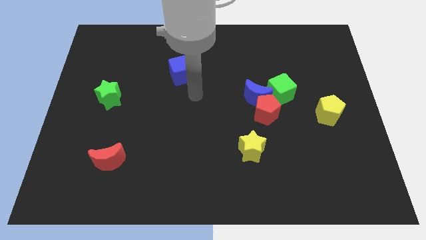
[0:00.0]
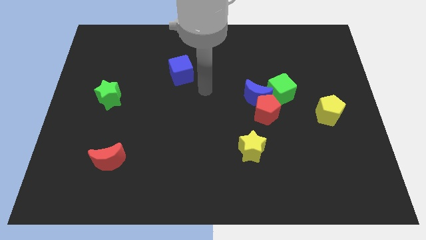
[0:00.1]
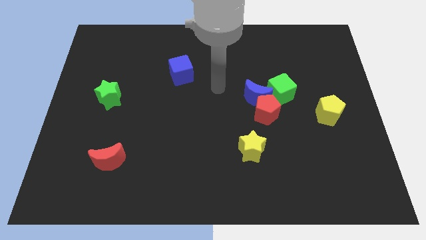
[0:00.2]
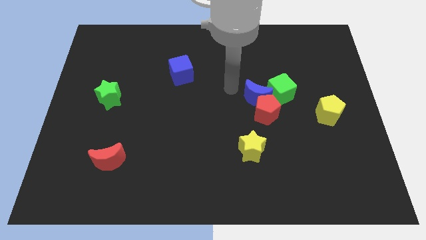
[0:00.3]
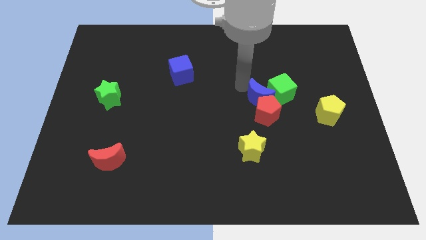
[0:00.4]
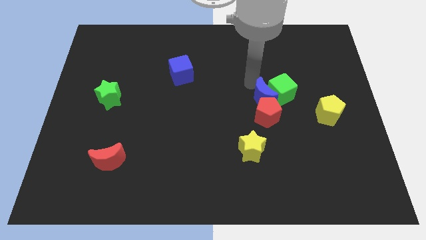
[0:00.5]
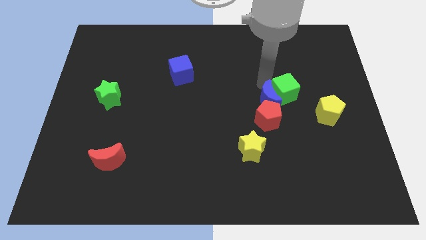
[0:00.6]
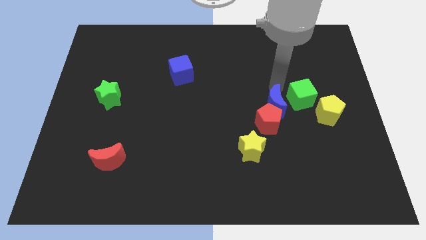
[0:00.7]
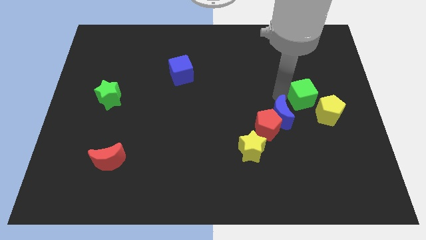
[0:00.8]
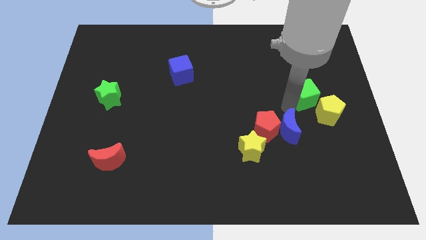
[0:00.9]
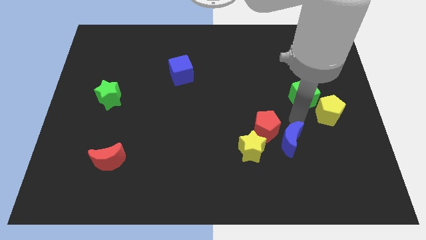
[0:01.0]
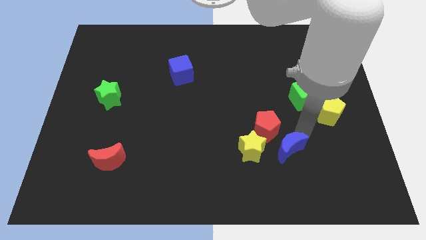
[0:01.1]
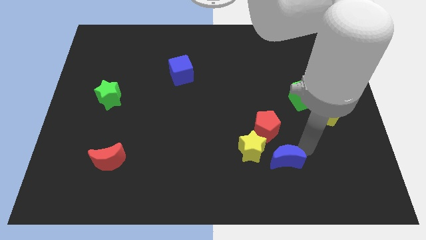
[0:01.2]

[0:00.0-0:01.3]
move the blue moon away from the red pentagon and green cube

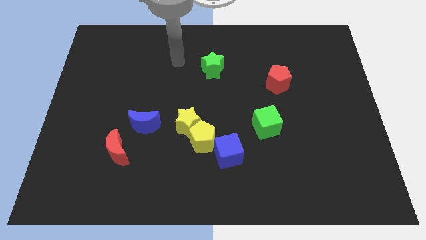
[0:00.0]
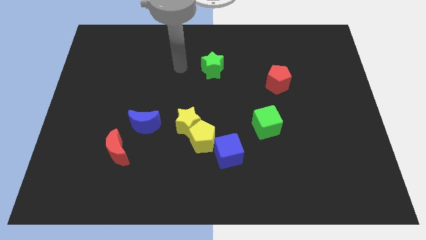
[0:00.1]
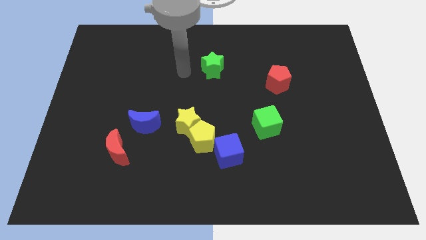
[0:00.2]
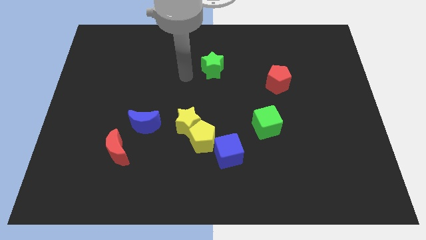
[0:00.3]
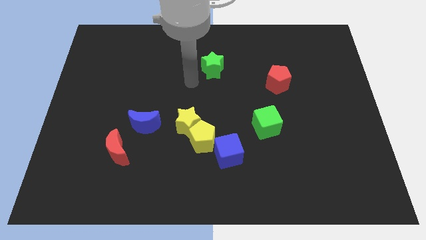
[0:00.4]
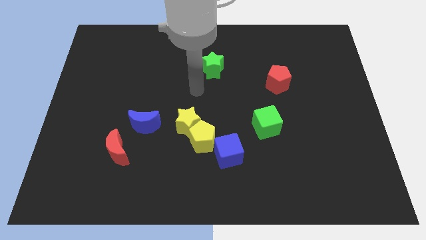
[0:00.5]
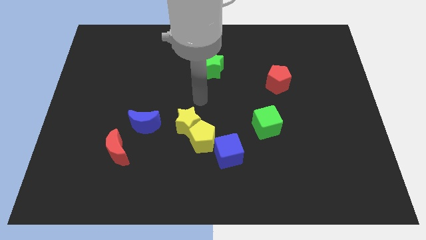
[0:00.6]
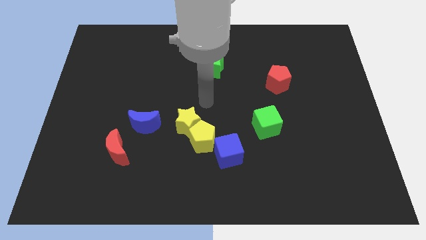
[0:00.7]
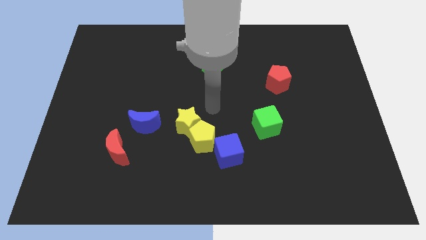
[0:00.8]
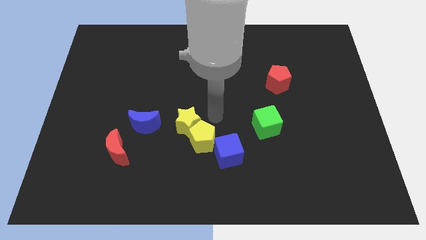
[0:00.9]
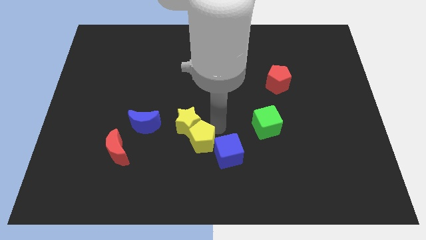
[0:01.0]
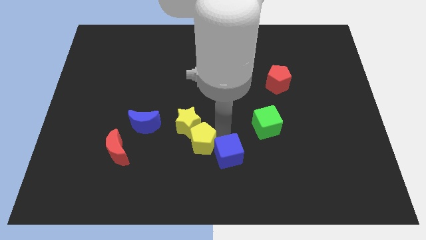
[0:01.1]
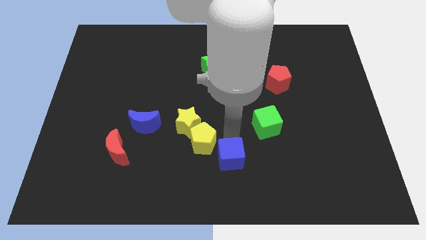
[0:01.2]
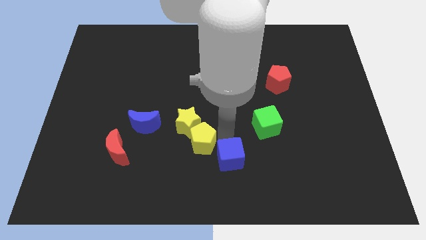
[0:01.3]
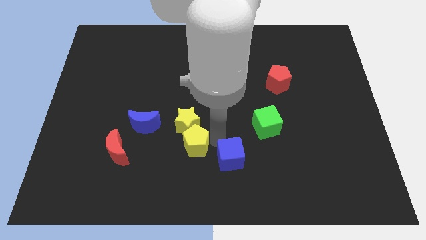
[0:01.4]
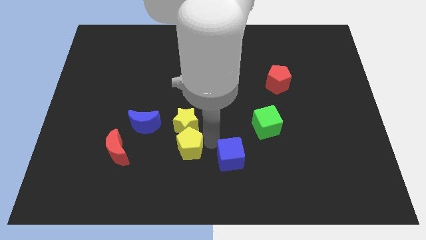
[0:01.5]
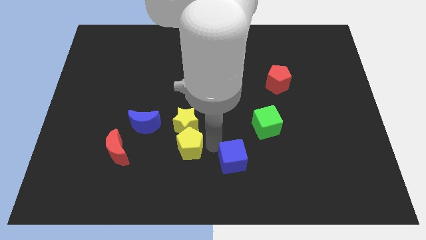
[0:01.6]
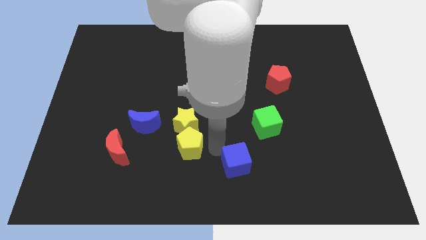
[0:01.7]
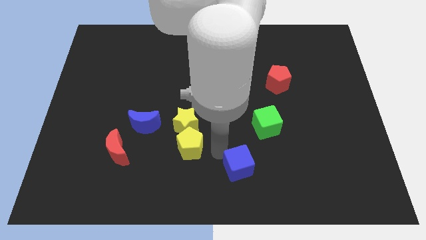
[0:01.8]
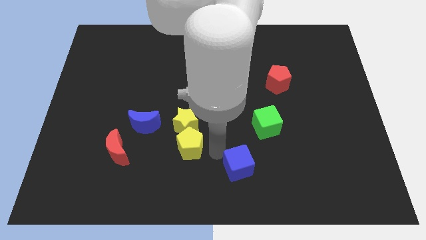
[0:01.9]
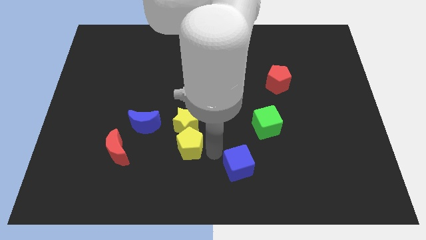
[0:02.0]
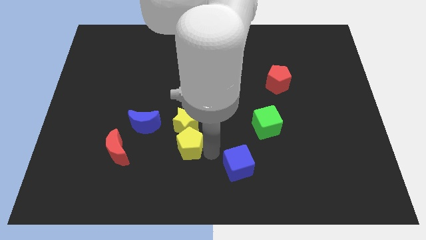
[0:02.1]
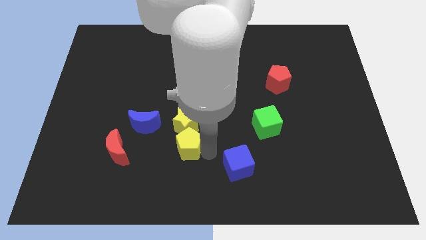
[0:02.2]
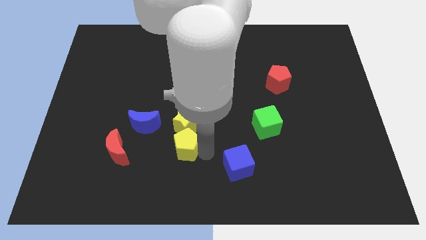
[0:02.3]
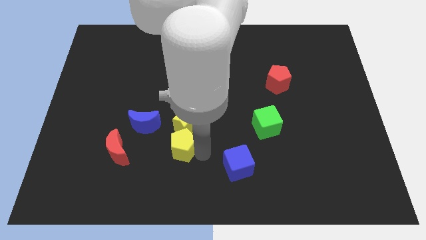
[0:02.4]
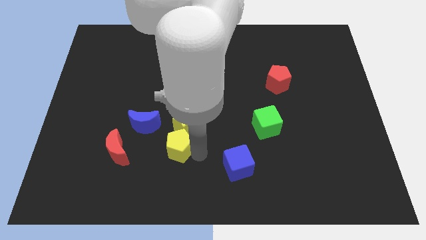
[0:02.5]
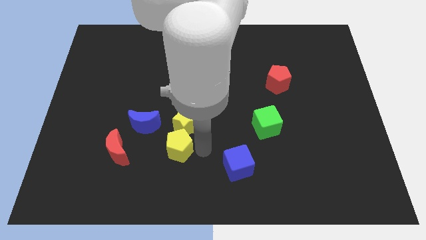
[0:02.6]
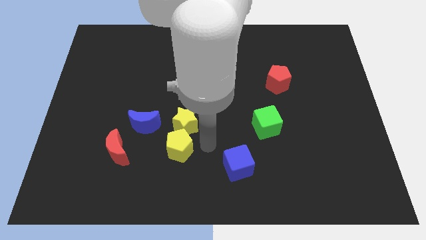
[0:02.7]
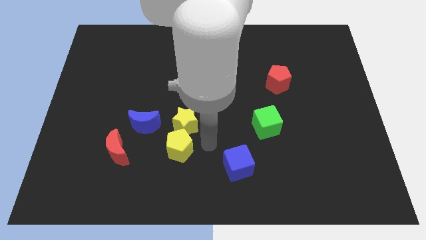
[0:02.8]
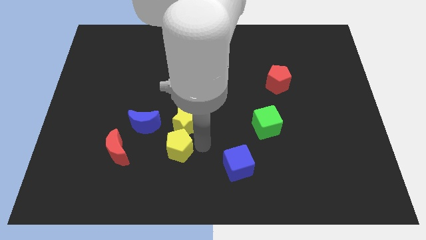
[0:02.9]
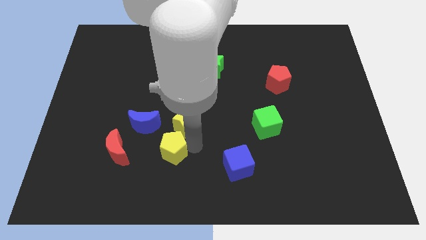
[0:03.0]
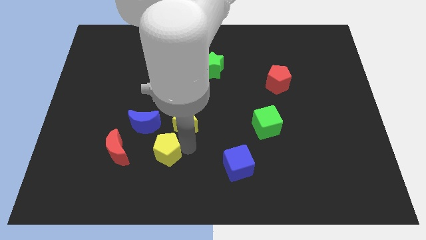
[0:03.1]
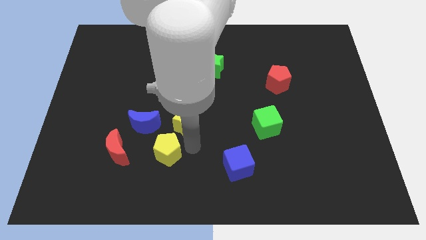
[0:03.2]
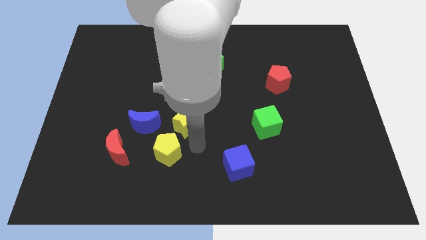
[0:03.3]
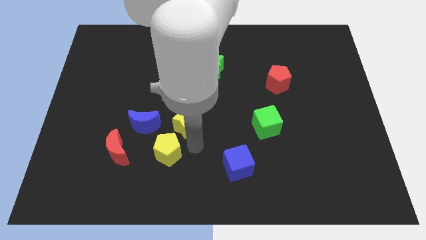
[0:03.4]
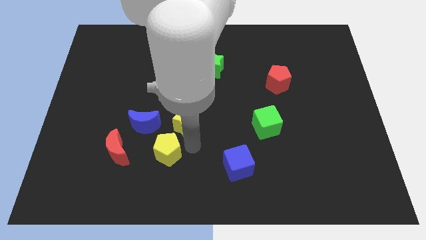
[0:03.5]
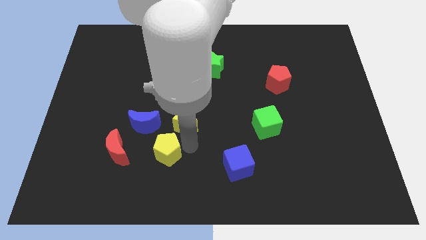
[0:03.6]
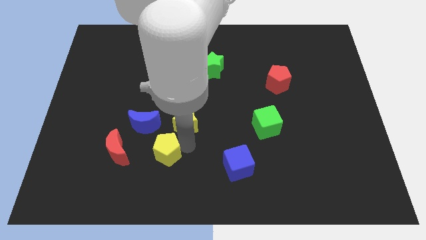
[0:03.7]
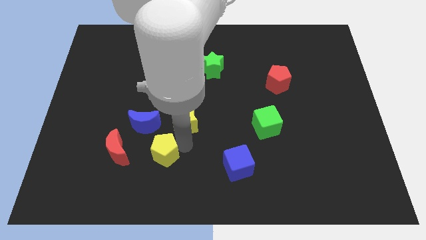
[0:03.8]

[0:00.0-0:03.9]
pull the yellow pentagon apart from the yellow star and blue cube

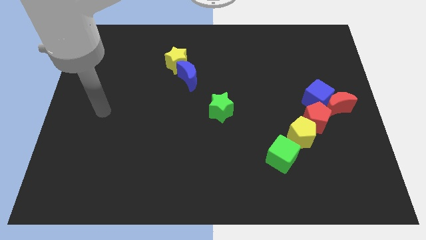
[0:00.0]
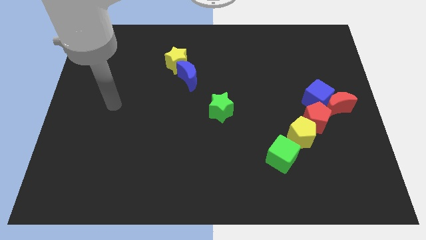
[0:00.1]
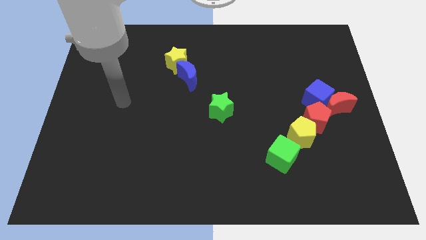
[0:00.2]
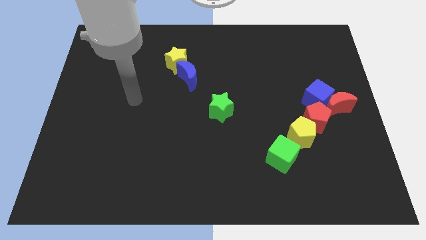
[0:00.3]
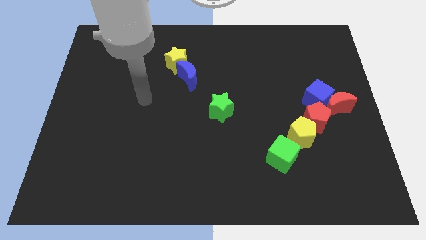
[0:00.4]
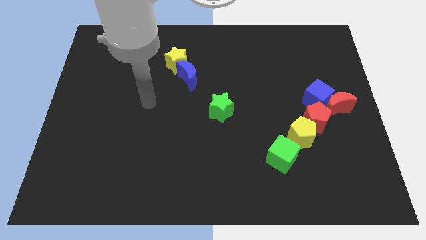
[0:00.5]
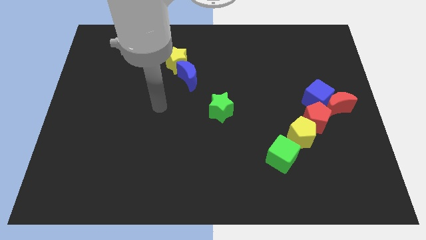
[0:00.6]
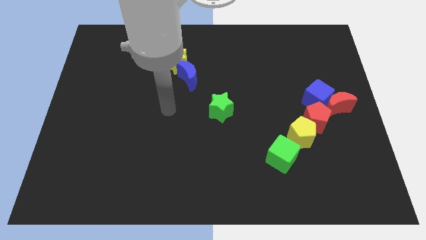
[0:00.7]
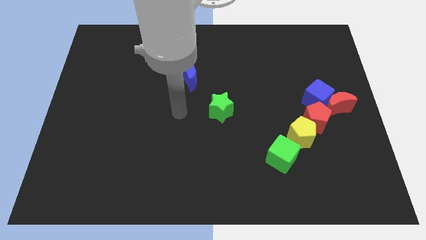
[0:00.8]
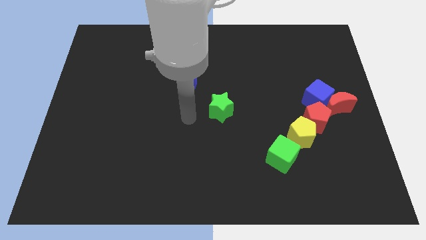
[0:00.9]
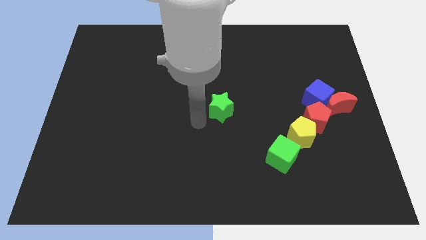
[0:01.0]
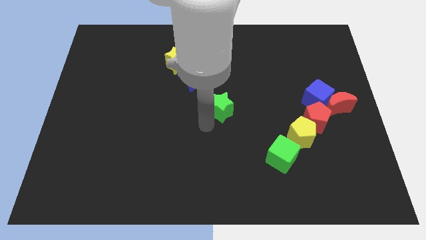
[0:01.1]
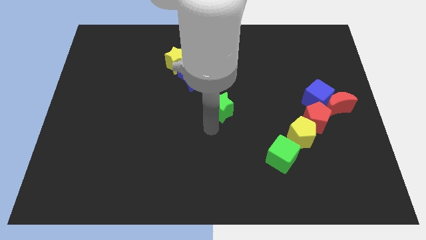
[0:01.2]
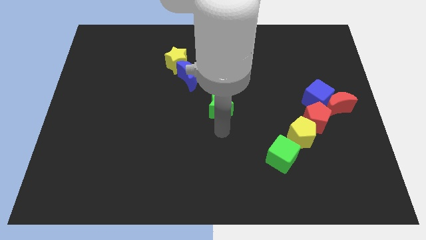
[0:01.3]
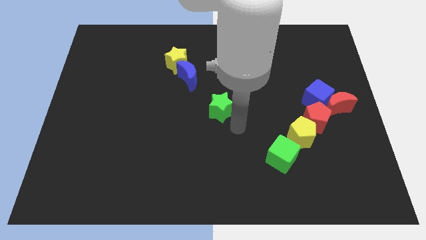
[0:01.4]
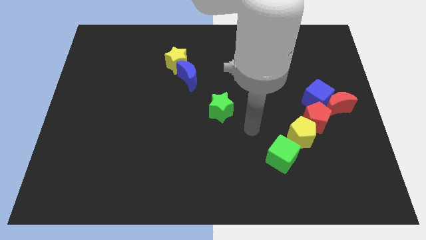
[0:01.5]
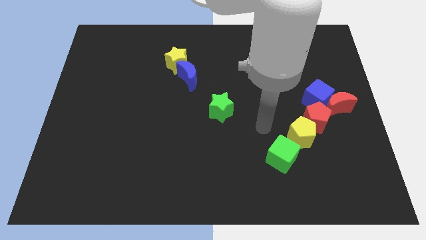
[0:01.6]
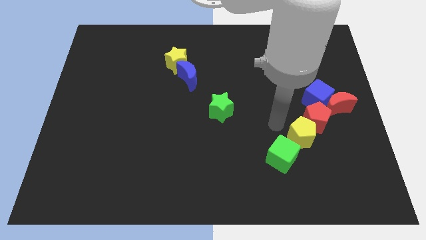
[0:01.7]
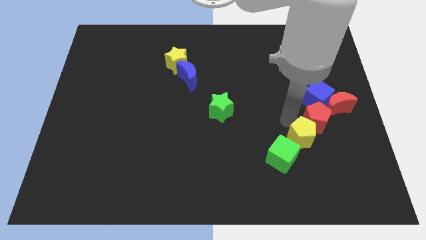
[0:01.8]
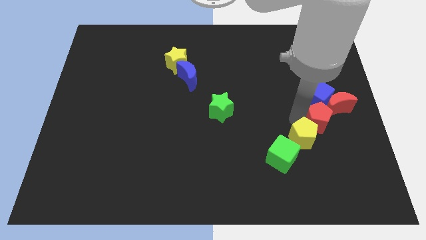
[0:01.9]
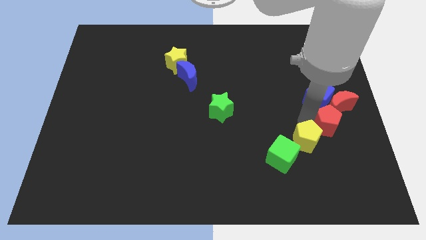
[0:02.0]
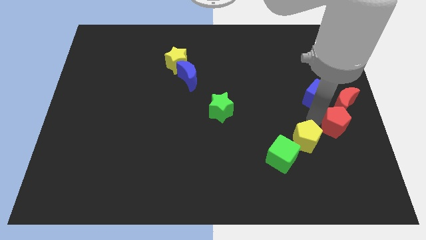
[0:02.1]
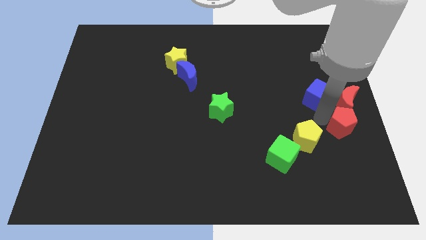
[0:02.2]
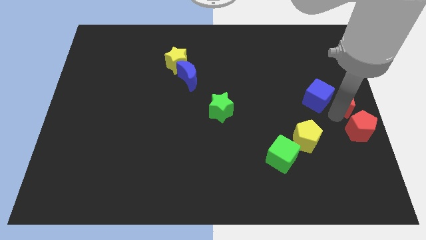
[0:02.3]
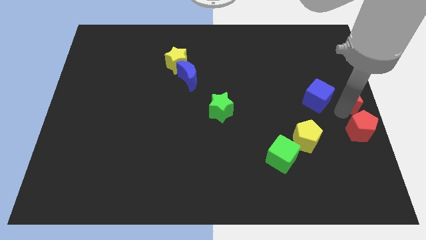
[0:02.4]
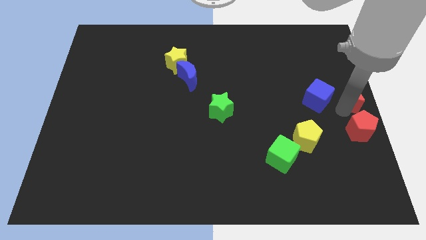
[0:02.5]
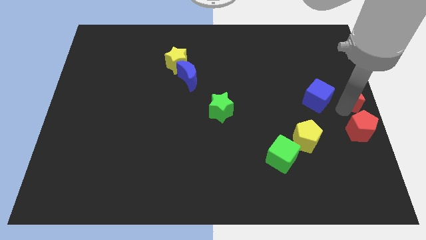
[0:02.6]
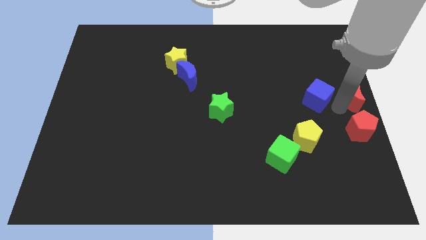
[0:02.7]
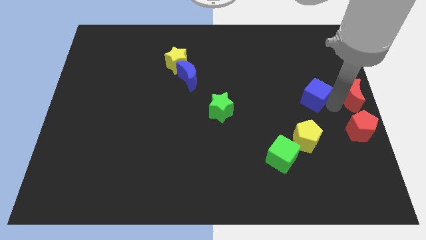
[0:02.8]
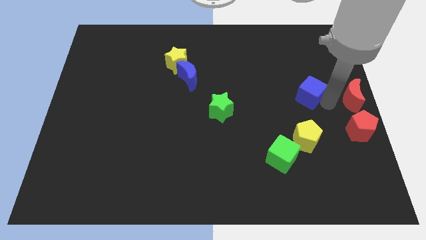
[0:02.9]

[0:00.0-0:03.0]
separate the blue cube from the red moon and red pentagon

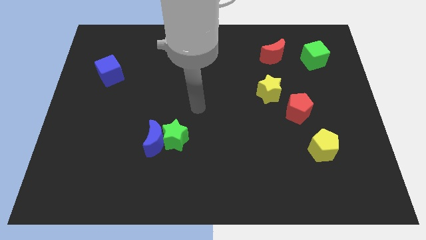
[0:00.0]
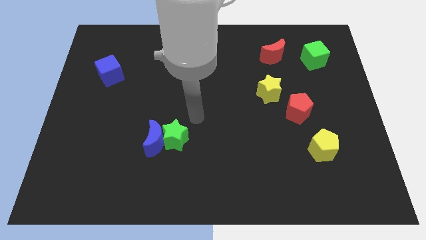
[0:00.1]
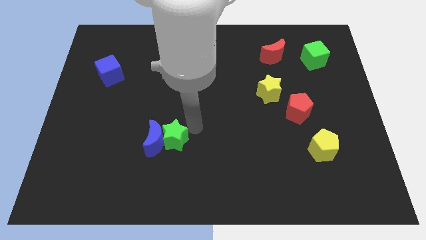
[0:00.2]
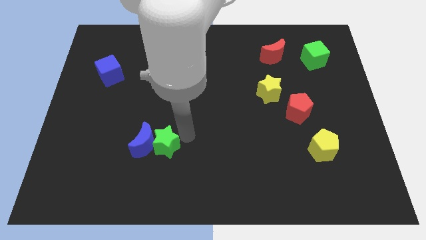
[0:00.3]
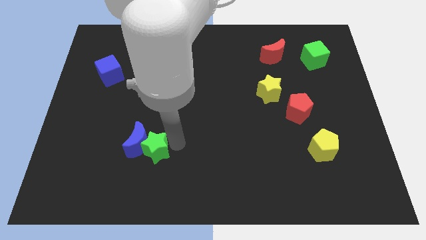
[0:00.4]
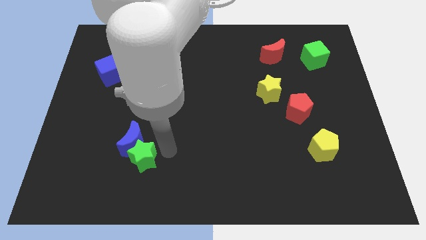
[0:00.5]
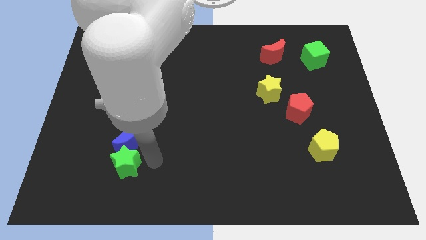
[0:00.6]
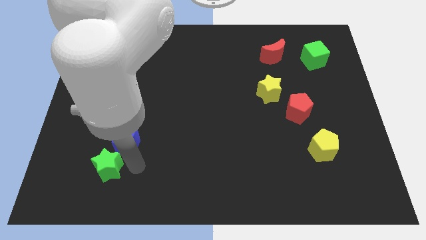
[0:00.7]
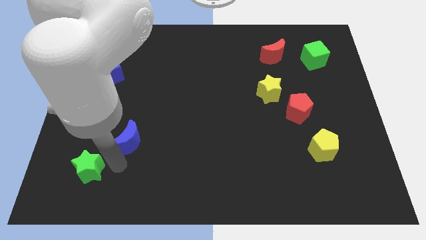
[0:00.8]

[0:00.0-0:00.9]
pull the blue moon apart from the green star

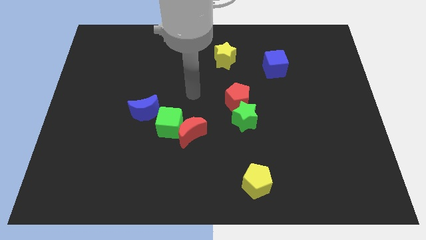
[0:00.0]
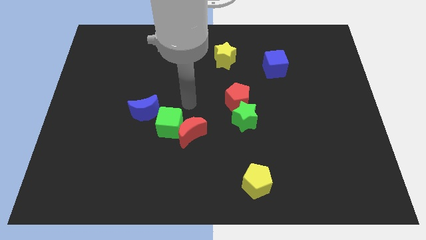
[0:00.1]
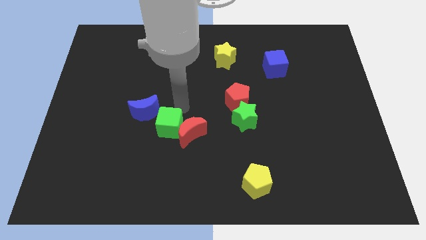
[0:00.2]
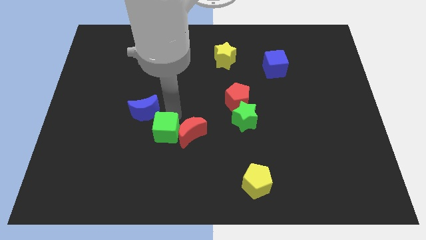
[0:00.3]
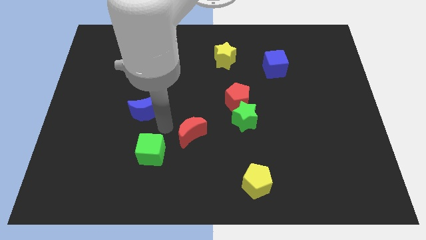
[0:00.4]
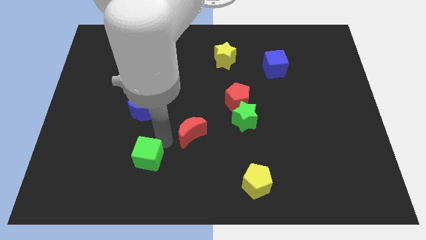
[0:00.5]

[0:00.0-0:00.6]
move the red moon away from the green cube
